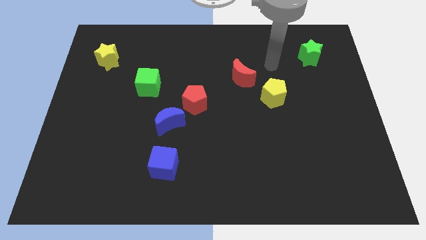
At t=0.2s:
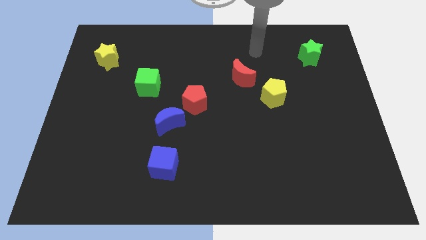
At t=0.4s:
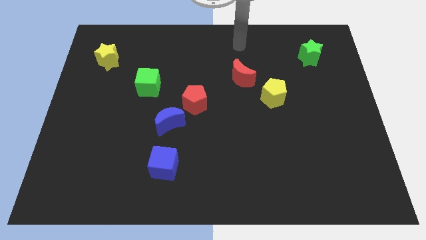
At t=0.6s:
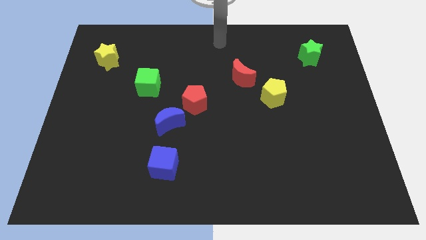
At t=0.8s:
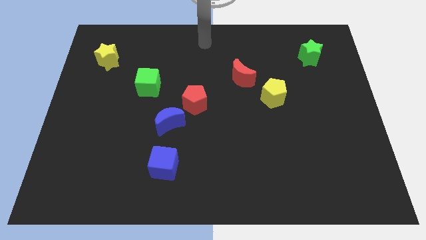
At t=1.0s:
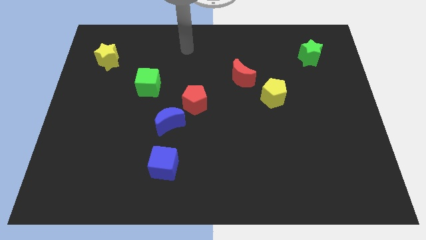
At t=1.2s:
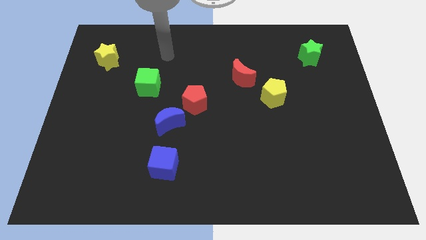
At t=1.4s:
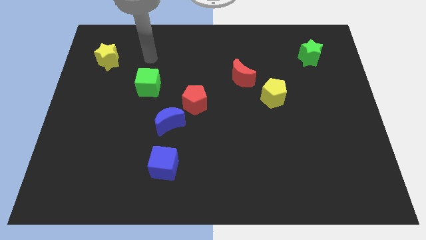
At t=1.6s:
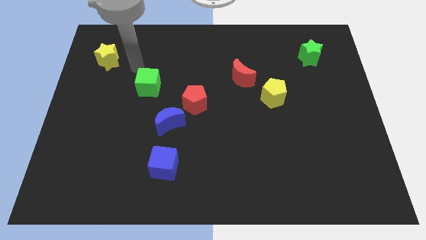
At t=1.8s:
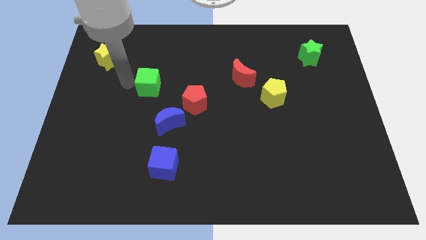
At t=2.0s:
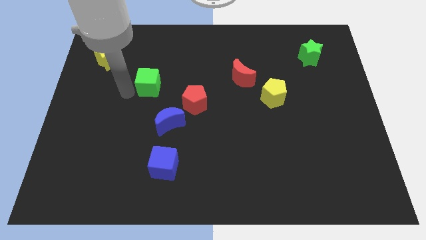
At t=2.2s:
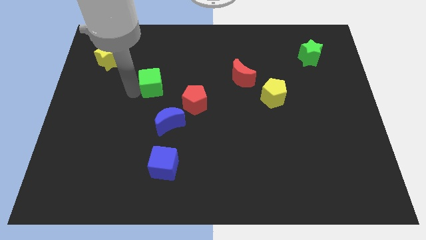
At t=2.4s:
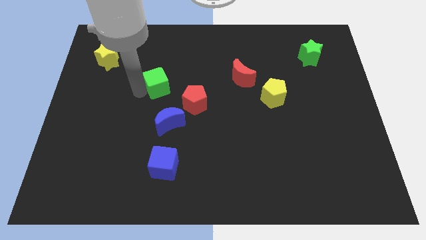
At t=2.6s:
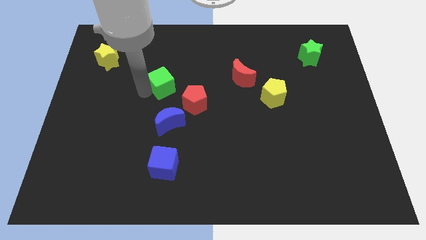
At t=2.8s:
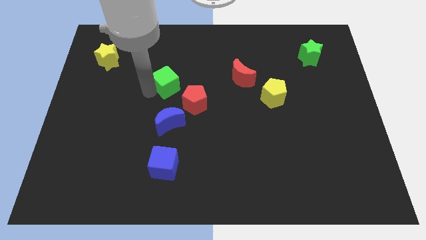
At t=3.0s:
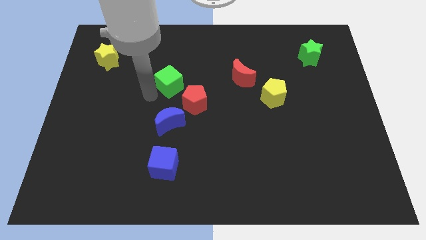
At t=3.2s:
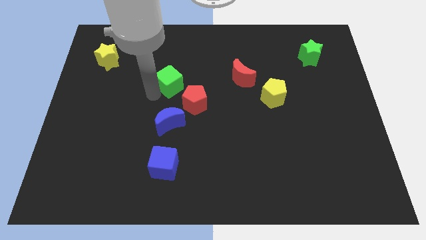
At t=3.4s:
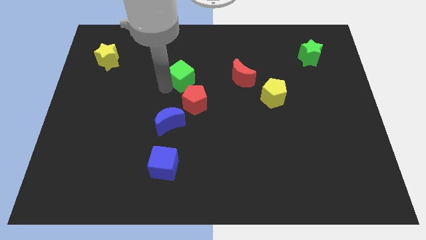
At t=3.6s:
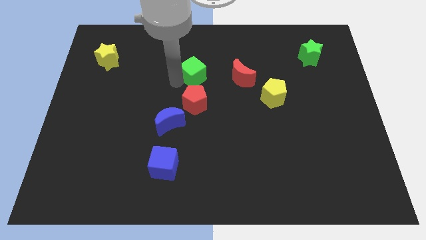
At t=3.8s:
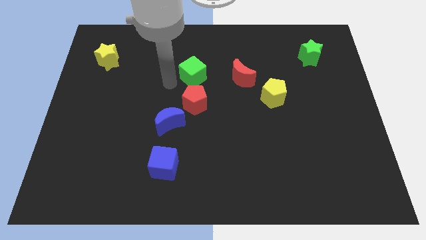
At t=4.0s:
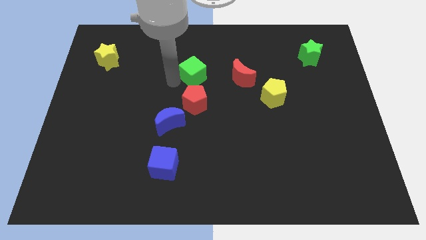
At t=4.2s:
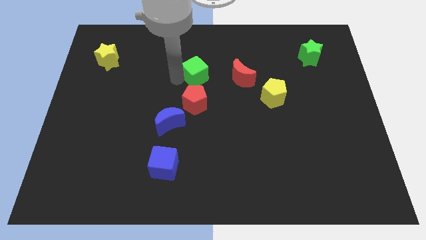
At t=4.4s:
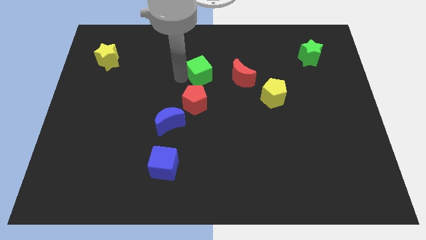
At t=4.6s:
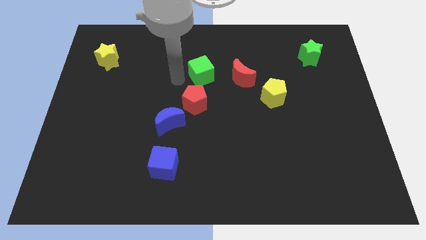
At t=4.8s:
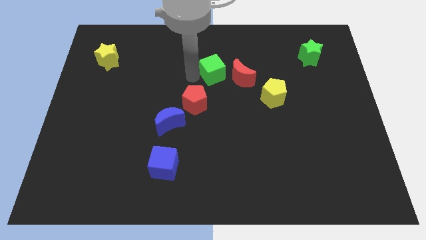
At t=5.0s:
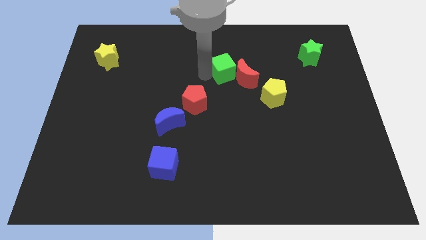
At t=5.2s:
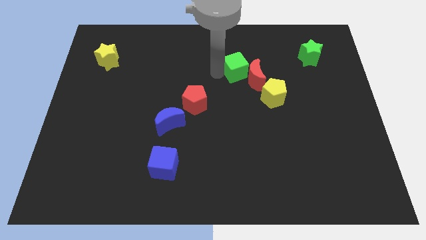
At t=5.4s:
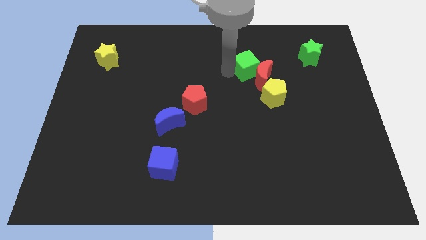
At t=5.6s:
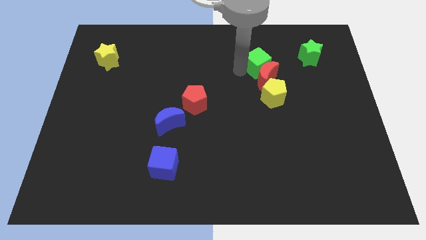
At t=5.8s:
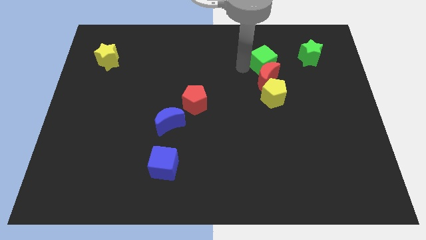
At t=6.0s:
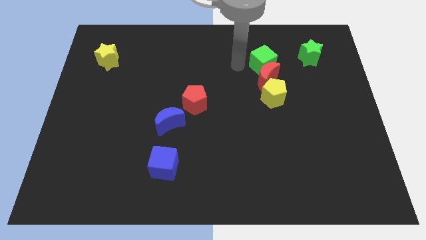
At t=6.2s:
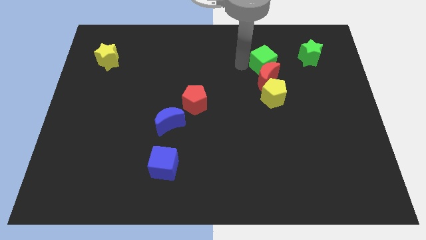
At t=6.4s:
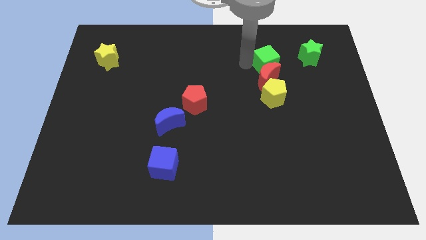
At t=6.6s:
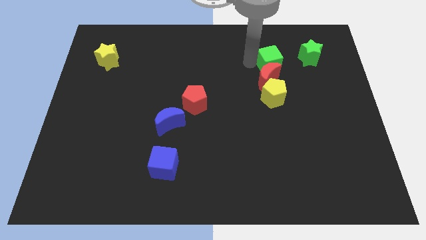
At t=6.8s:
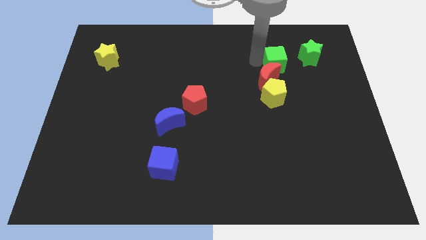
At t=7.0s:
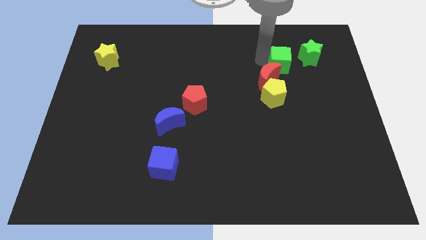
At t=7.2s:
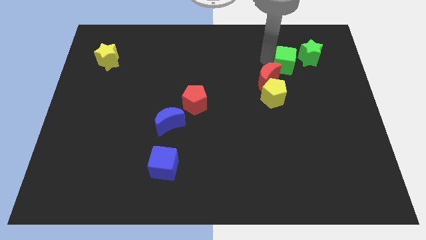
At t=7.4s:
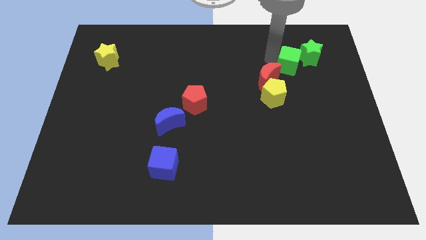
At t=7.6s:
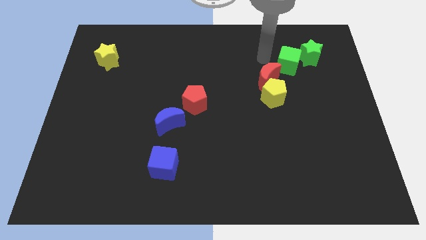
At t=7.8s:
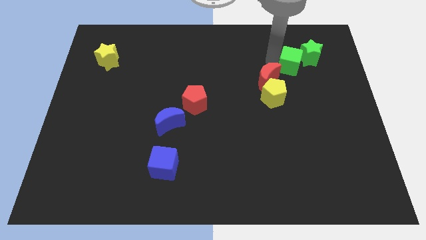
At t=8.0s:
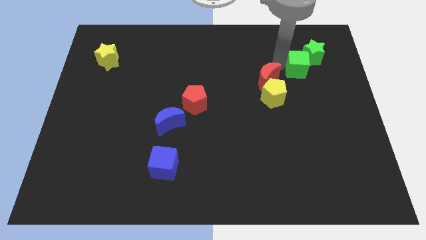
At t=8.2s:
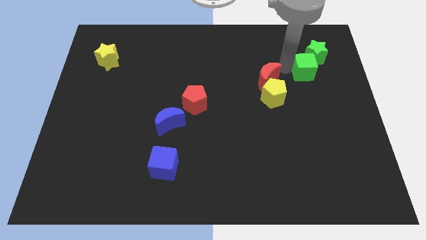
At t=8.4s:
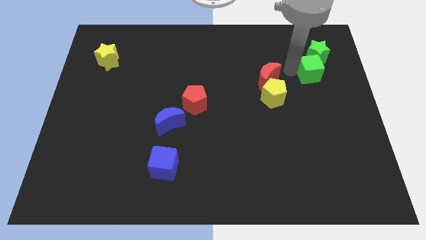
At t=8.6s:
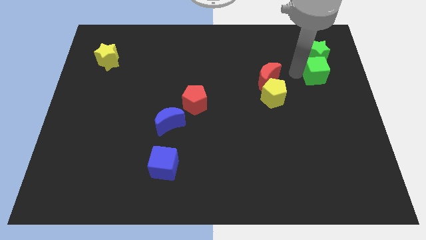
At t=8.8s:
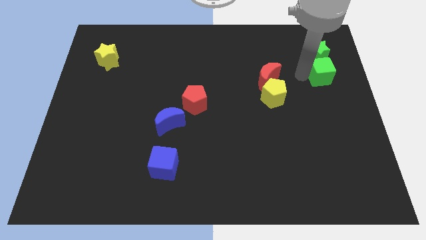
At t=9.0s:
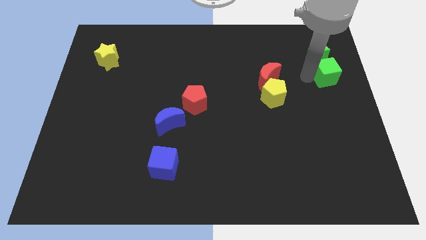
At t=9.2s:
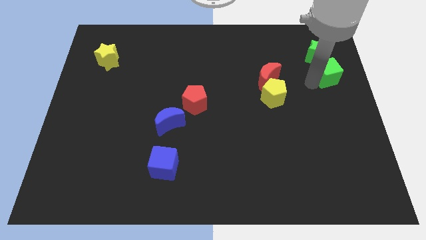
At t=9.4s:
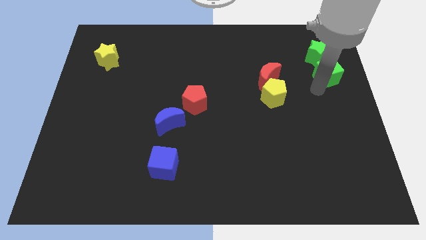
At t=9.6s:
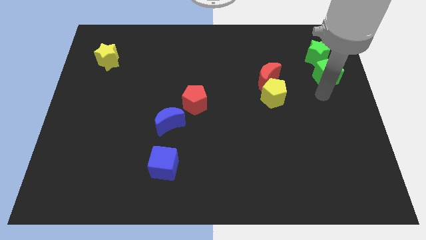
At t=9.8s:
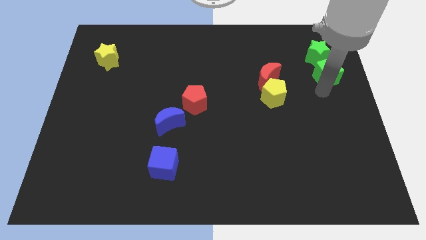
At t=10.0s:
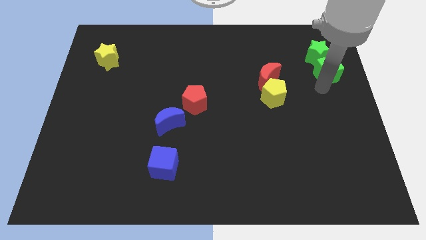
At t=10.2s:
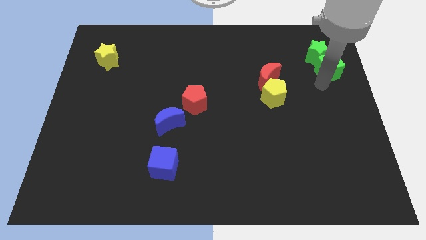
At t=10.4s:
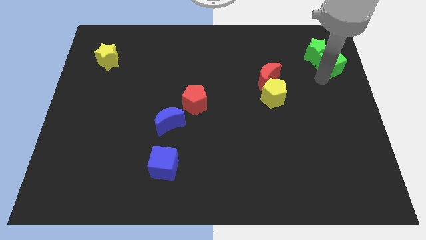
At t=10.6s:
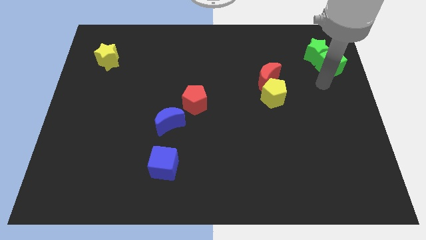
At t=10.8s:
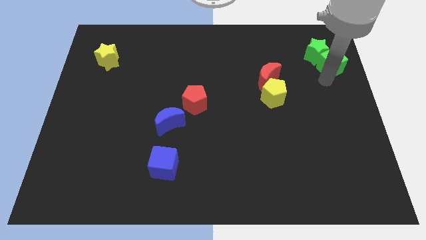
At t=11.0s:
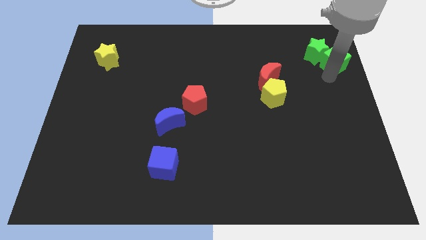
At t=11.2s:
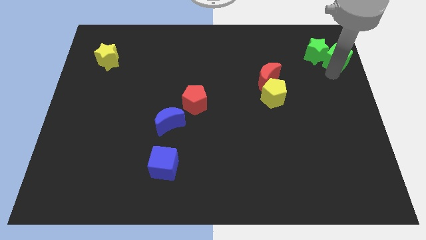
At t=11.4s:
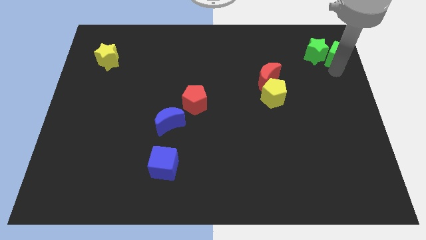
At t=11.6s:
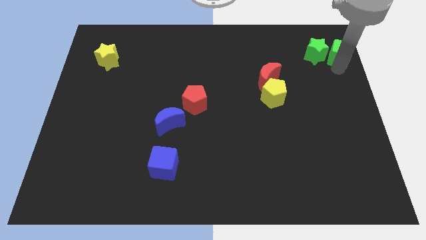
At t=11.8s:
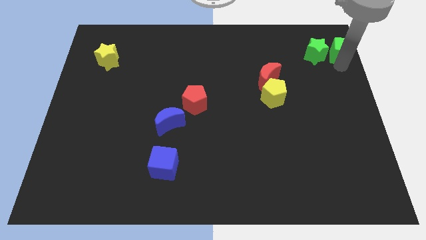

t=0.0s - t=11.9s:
put the green cube to the top right of the board
